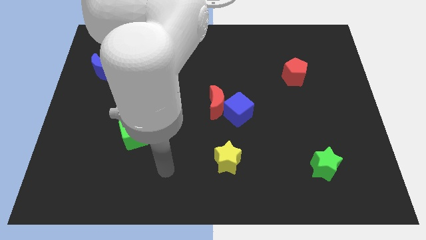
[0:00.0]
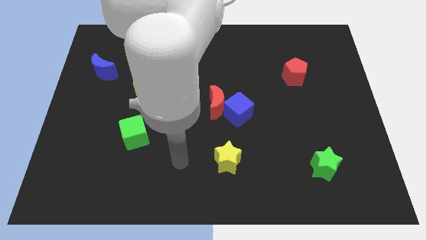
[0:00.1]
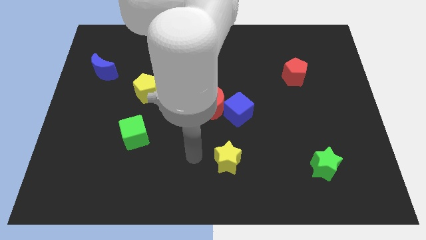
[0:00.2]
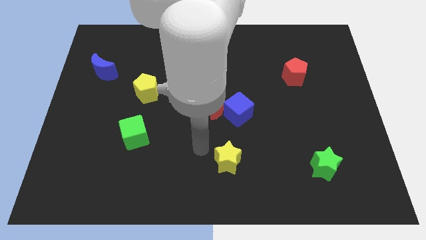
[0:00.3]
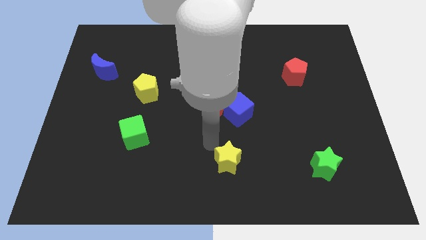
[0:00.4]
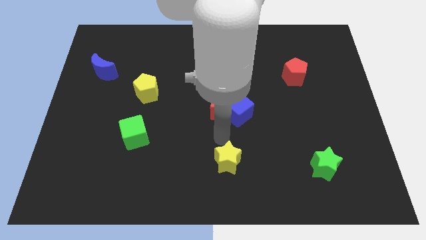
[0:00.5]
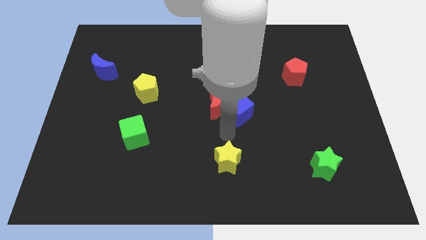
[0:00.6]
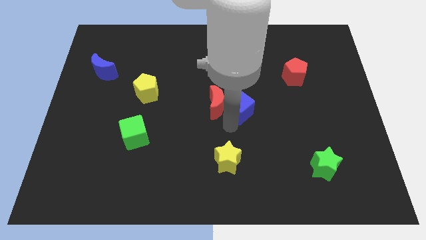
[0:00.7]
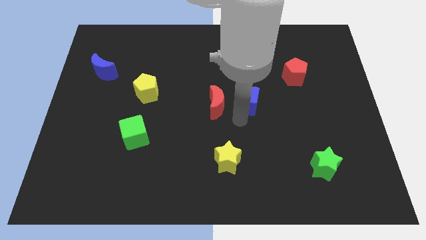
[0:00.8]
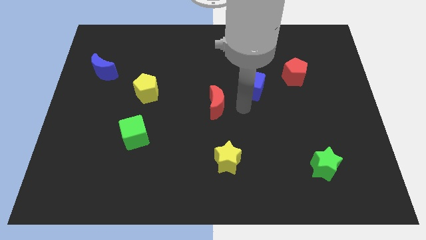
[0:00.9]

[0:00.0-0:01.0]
separate the red moon from the blue cube

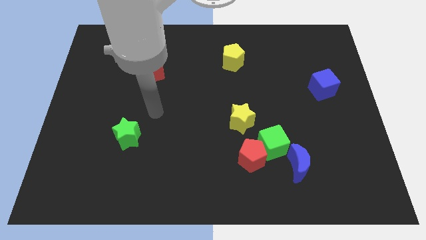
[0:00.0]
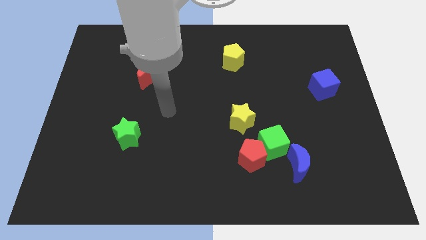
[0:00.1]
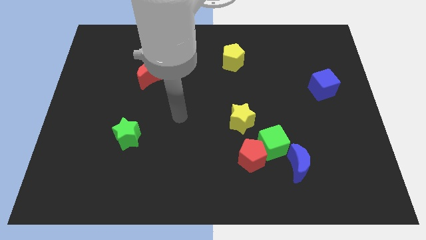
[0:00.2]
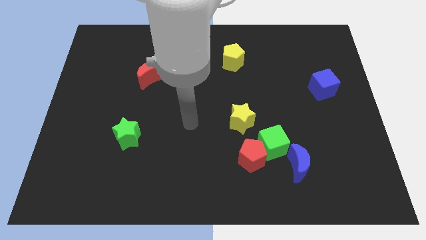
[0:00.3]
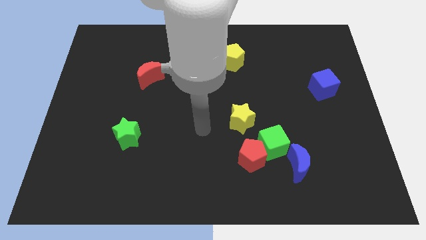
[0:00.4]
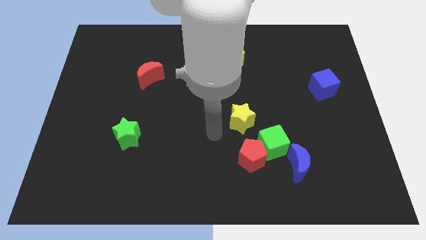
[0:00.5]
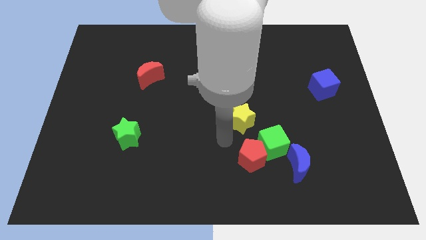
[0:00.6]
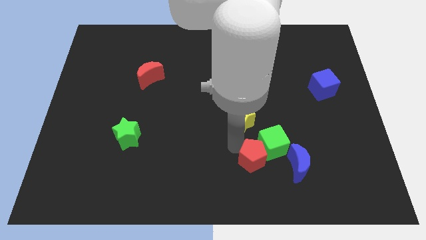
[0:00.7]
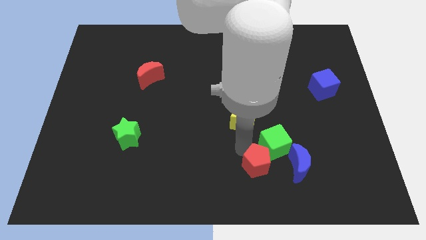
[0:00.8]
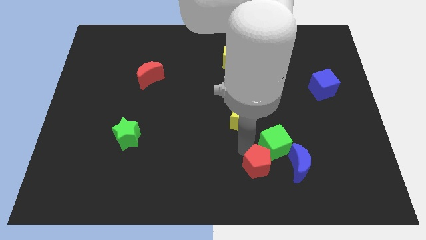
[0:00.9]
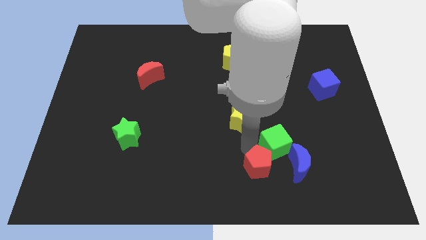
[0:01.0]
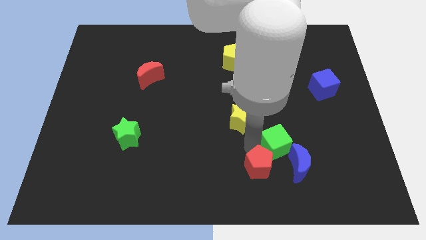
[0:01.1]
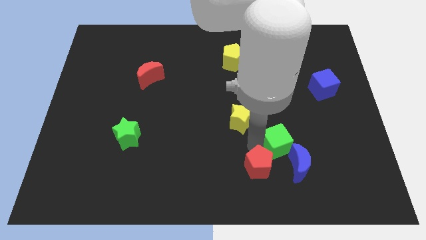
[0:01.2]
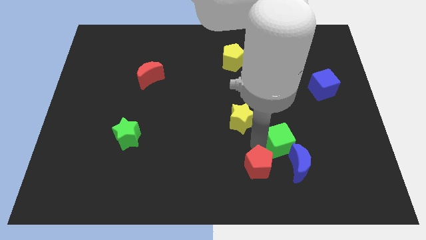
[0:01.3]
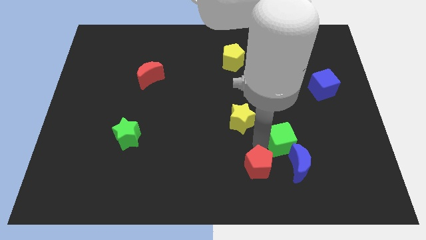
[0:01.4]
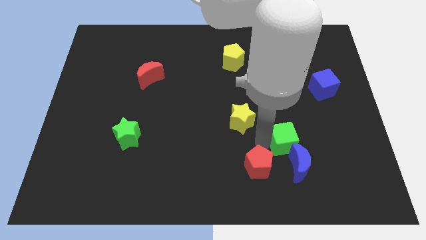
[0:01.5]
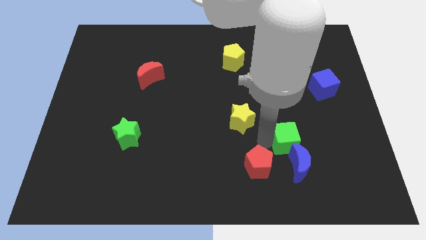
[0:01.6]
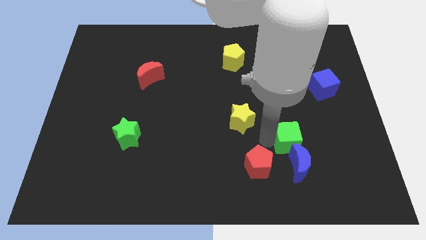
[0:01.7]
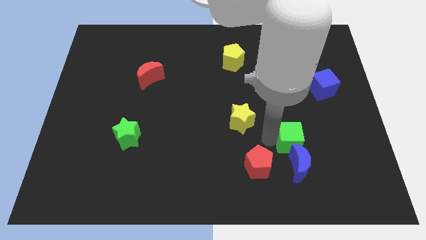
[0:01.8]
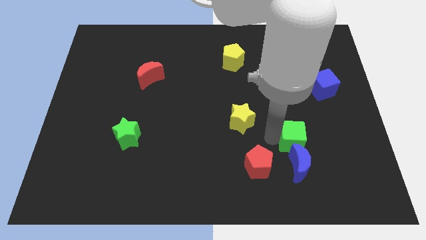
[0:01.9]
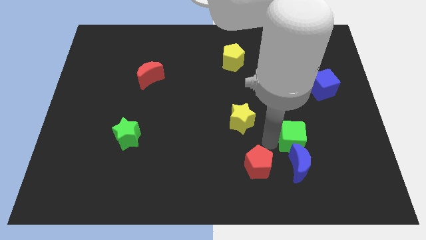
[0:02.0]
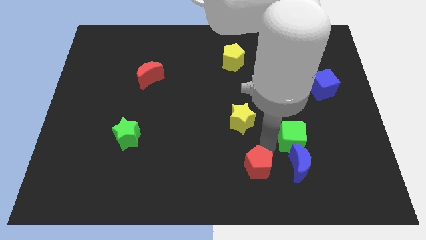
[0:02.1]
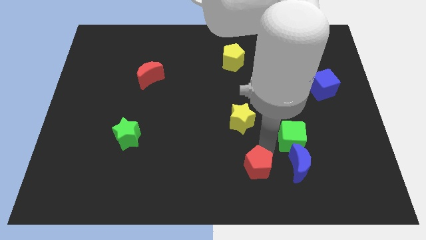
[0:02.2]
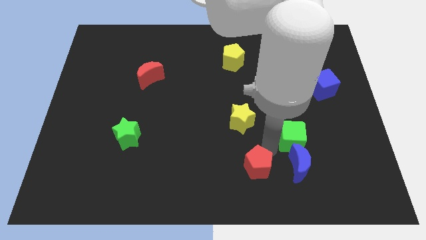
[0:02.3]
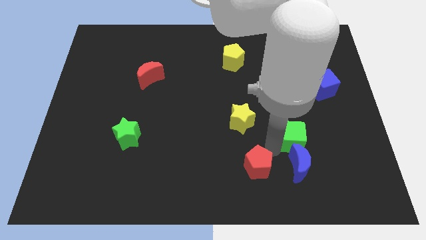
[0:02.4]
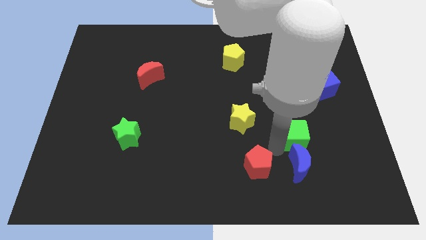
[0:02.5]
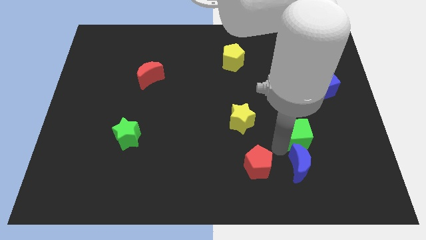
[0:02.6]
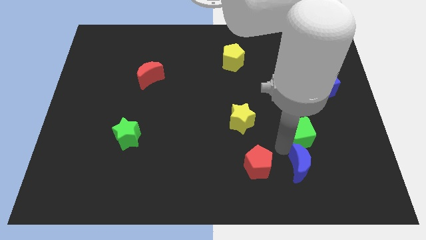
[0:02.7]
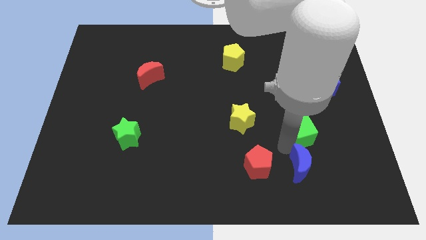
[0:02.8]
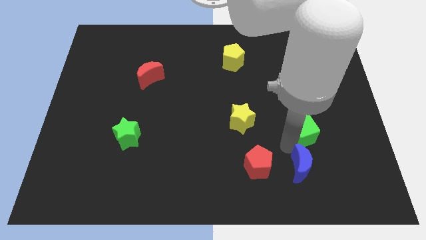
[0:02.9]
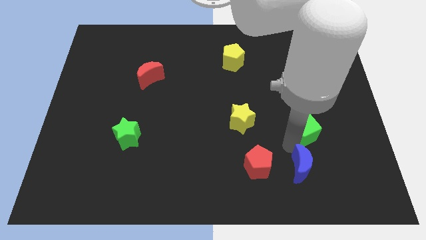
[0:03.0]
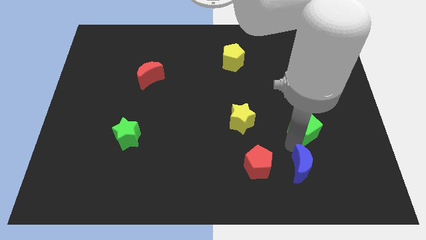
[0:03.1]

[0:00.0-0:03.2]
move the green cube away from the red pentagon, blue moon, and yellow star

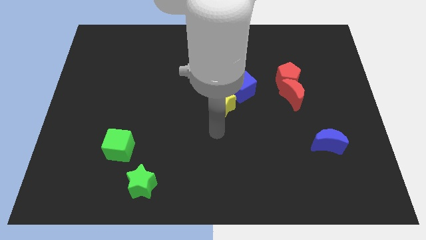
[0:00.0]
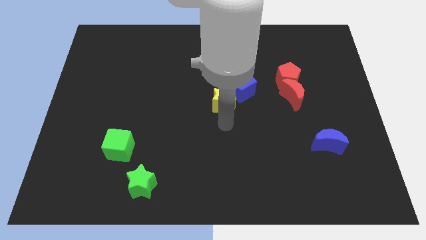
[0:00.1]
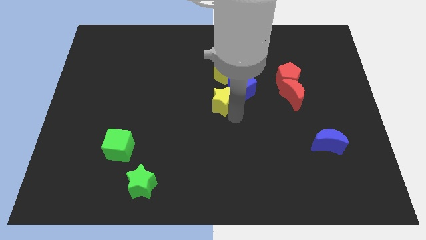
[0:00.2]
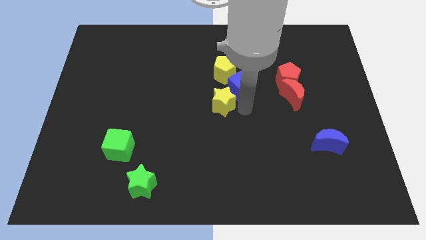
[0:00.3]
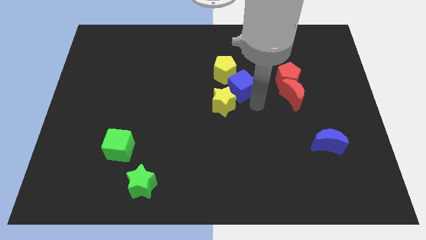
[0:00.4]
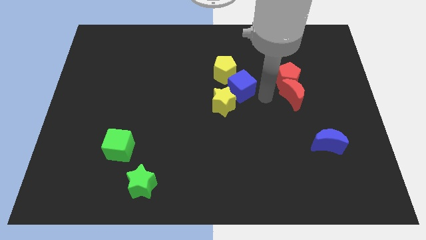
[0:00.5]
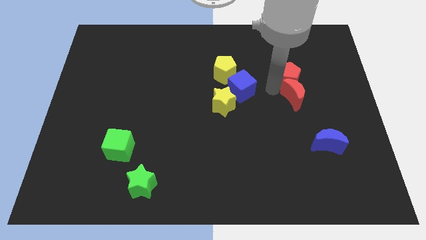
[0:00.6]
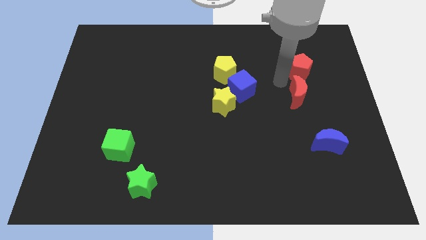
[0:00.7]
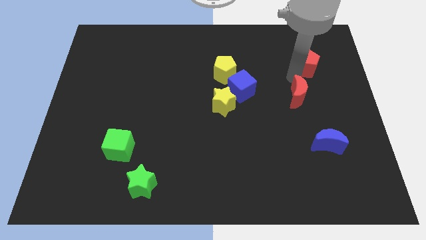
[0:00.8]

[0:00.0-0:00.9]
move the red moon away from the red pentagon

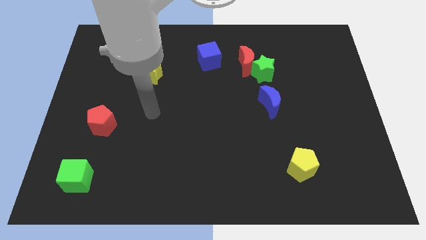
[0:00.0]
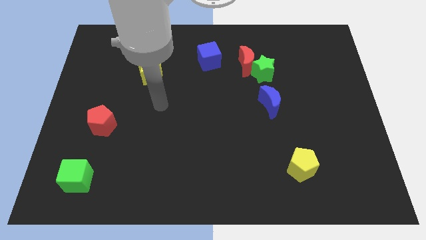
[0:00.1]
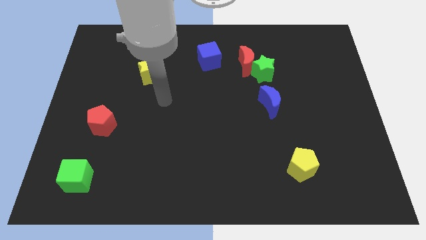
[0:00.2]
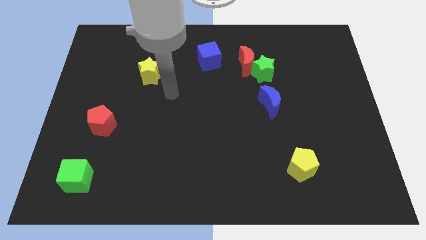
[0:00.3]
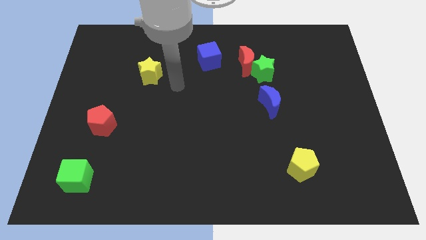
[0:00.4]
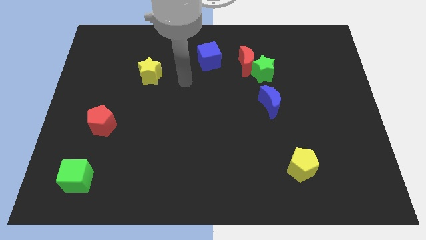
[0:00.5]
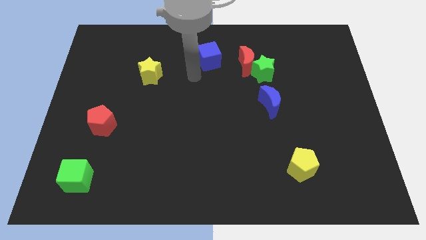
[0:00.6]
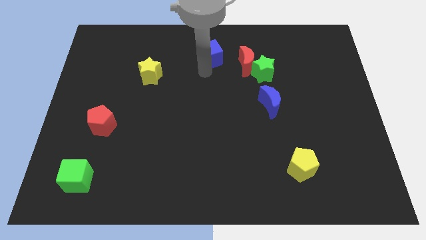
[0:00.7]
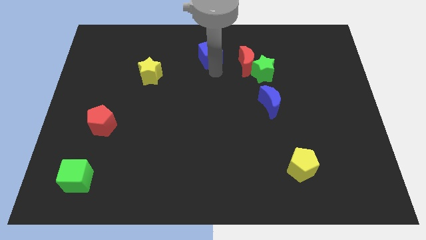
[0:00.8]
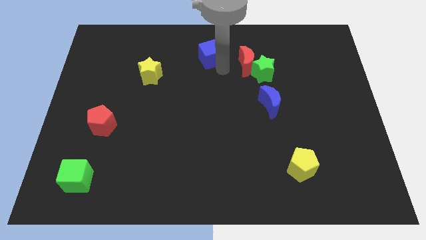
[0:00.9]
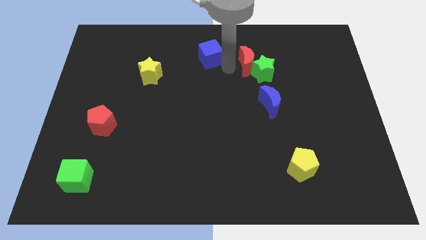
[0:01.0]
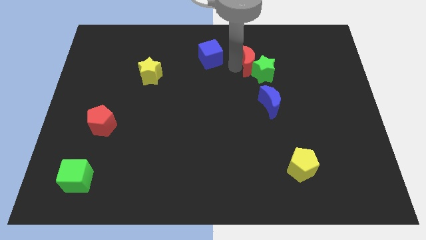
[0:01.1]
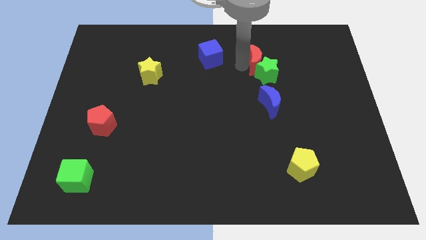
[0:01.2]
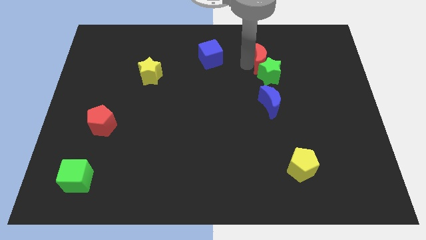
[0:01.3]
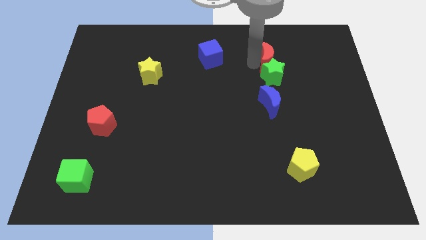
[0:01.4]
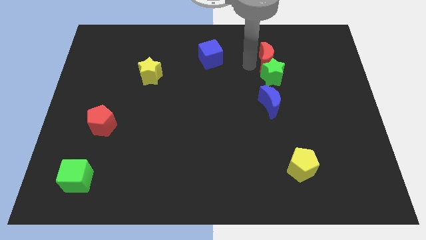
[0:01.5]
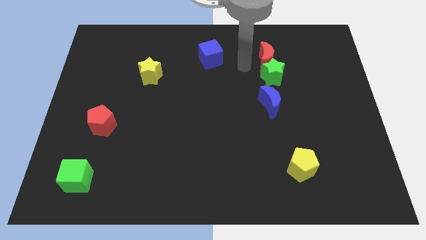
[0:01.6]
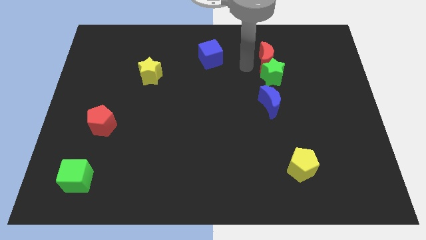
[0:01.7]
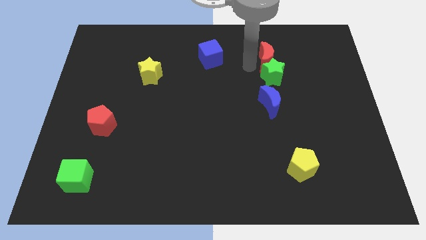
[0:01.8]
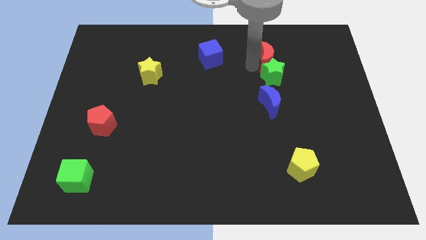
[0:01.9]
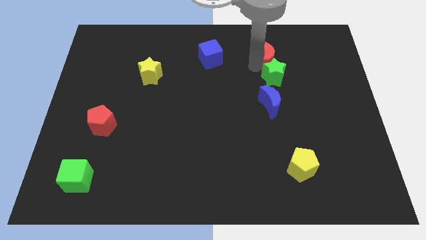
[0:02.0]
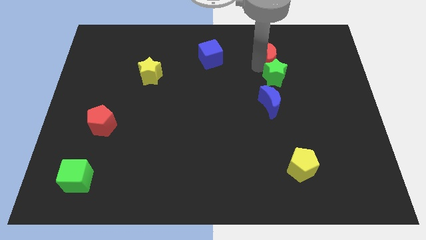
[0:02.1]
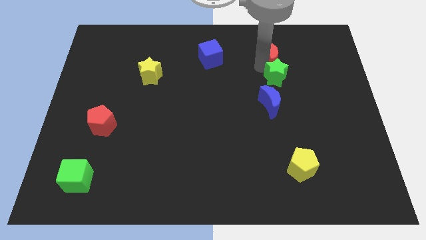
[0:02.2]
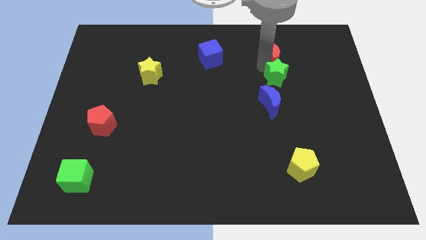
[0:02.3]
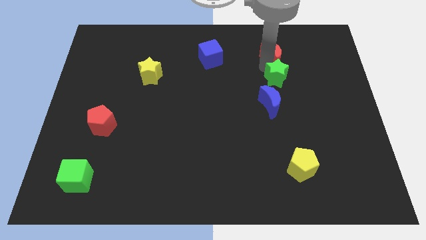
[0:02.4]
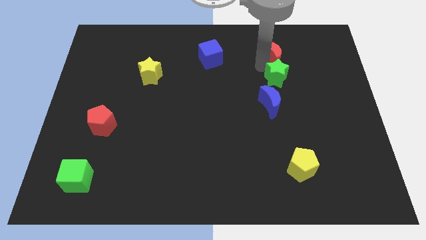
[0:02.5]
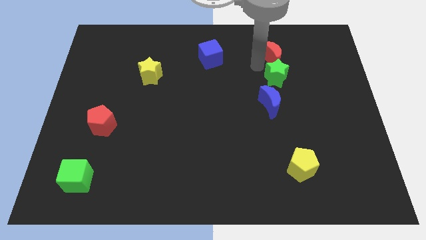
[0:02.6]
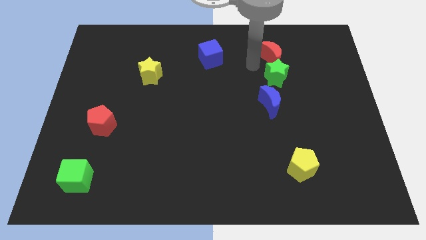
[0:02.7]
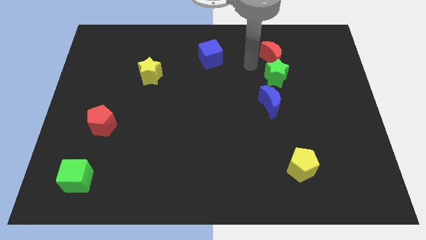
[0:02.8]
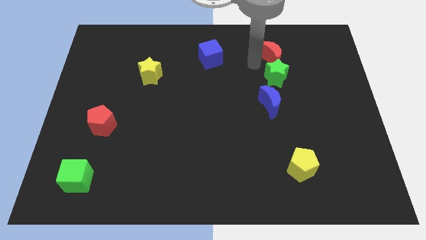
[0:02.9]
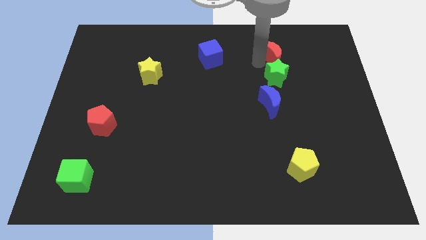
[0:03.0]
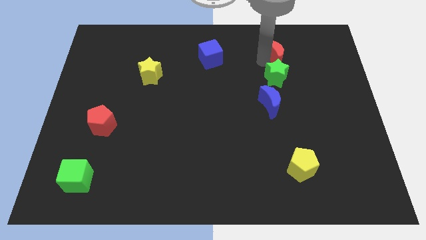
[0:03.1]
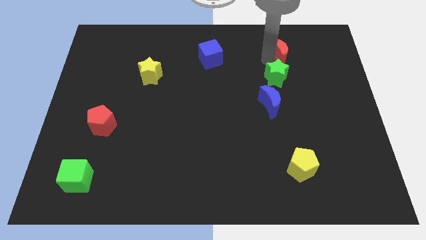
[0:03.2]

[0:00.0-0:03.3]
pull the red moon apart from the green star and blue cube

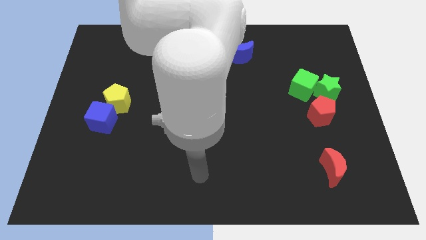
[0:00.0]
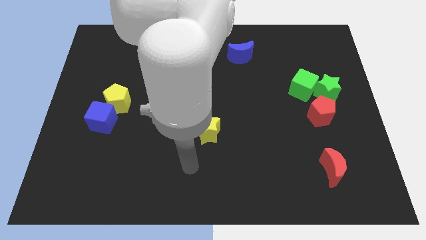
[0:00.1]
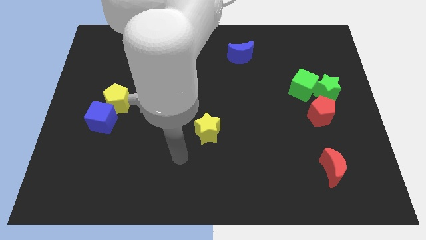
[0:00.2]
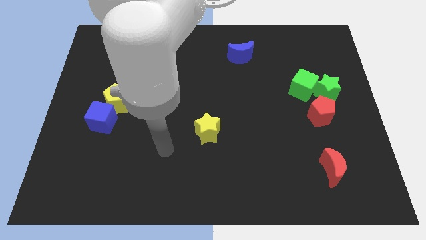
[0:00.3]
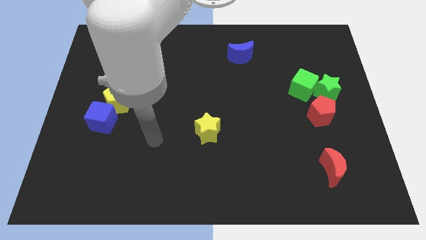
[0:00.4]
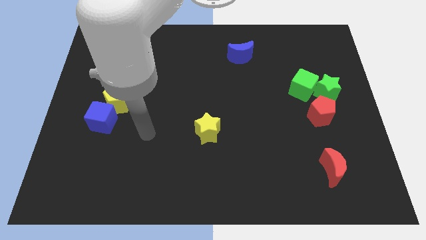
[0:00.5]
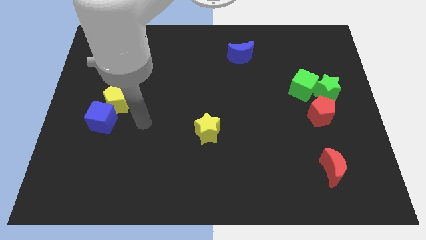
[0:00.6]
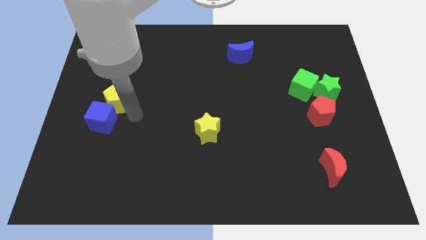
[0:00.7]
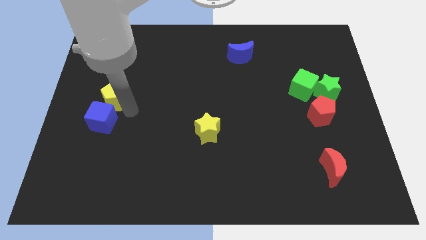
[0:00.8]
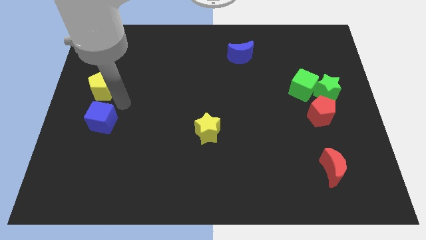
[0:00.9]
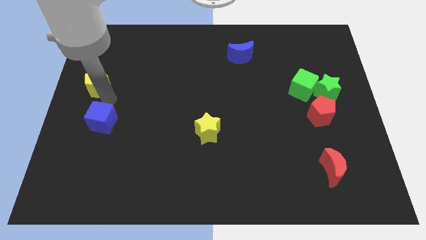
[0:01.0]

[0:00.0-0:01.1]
pull the blue cube apart from the yellow pentagon
